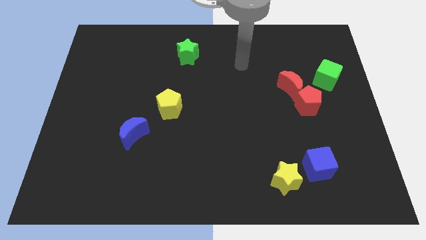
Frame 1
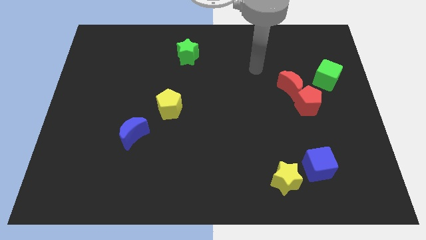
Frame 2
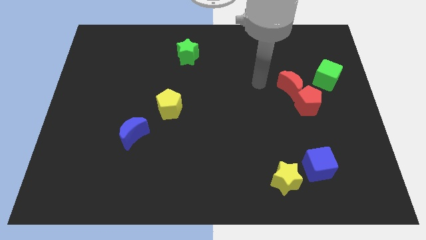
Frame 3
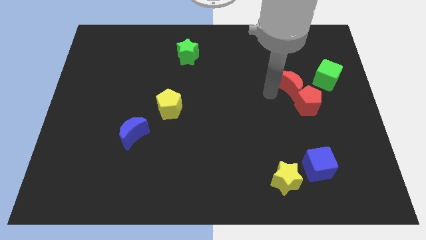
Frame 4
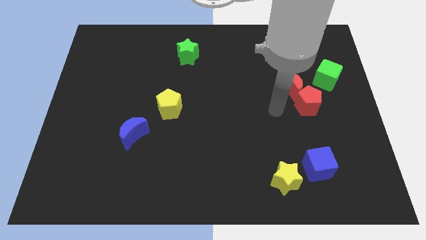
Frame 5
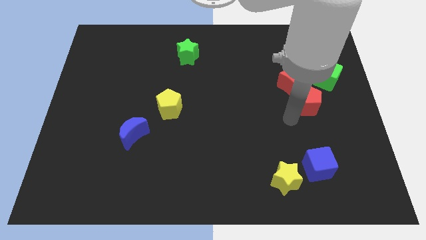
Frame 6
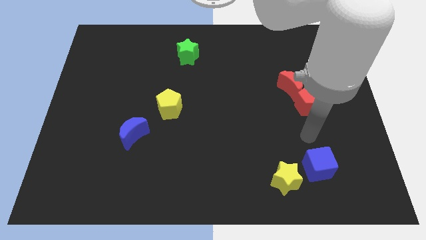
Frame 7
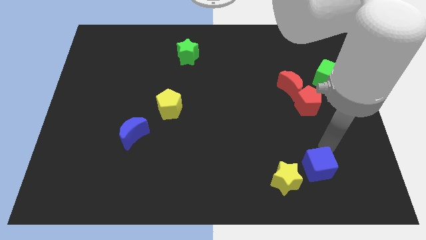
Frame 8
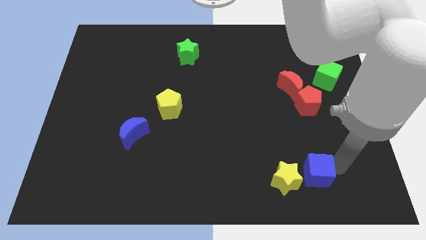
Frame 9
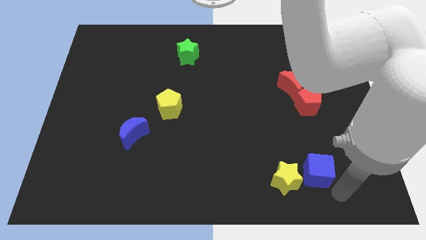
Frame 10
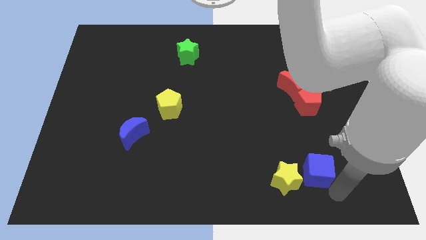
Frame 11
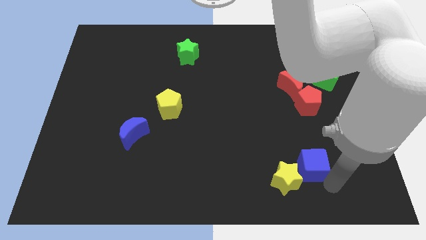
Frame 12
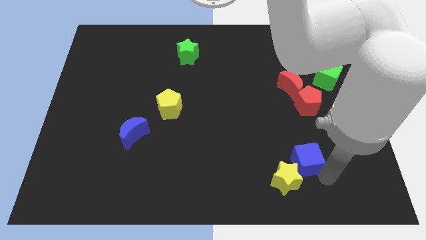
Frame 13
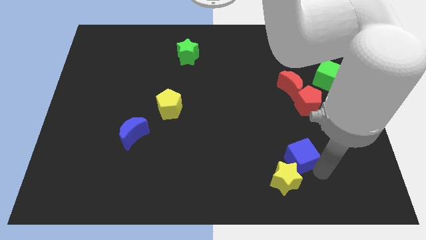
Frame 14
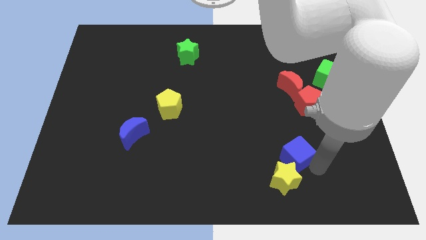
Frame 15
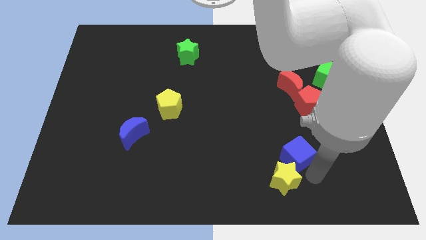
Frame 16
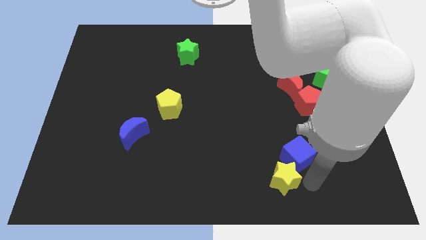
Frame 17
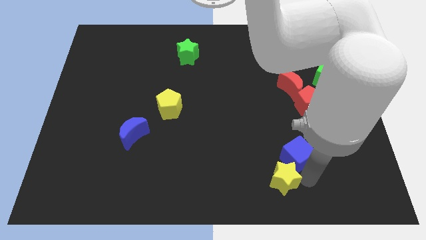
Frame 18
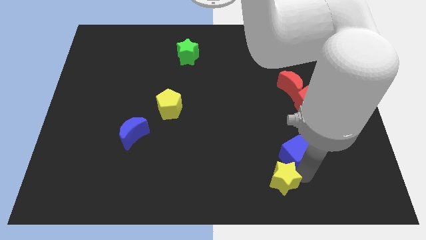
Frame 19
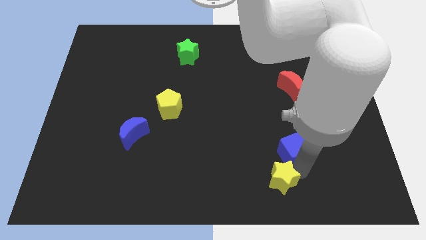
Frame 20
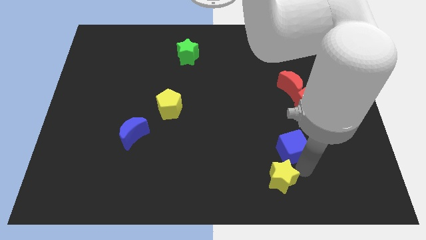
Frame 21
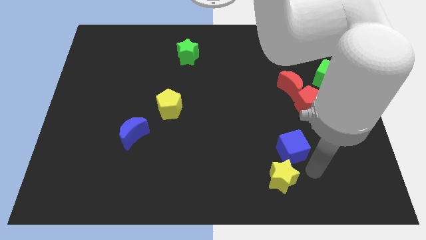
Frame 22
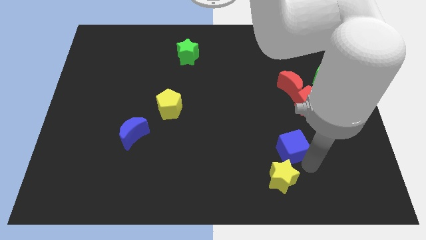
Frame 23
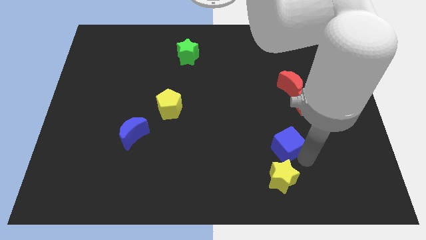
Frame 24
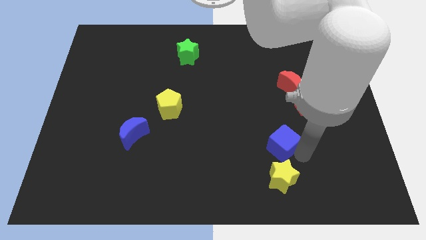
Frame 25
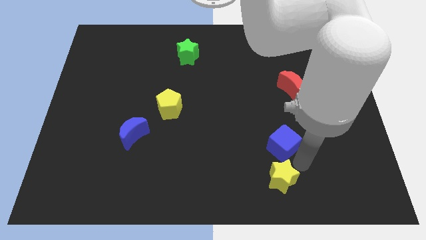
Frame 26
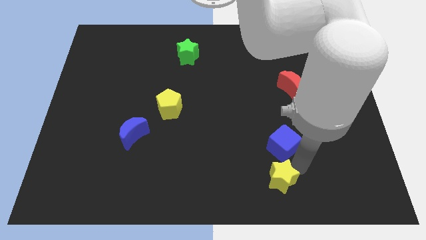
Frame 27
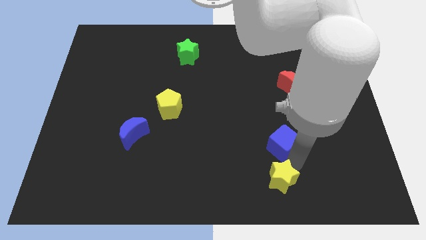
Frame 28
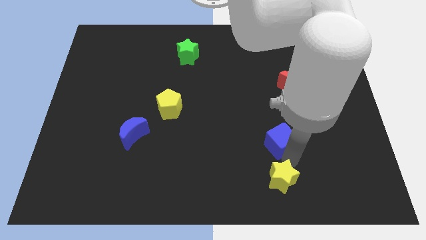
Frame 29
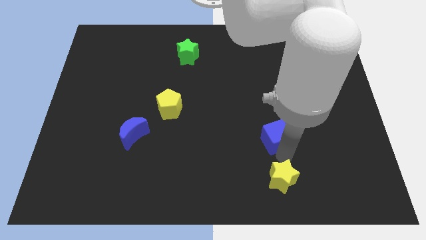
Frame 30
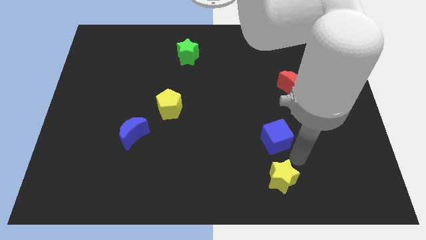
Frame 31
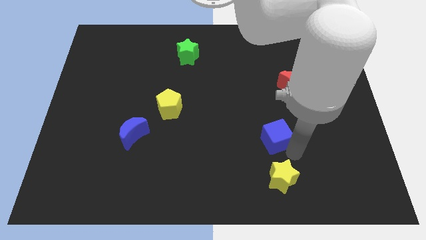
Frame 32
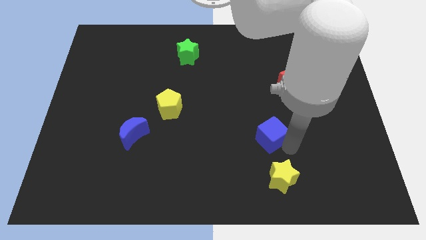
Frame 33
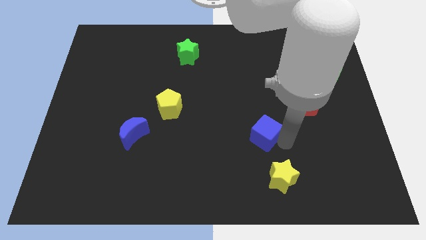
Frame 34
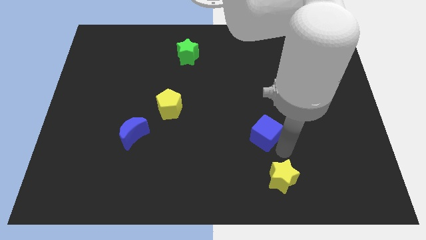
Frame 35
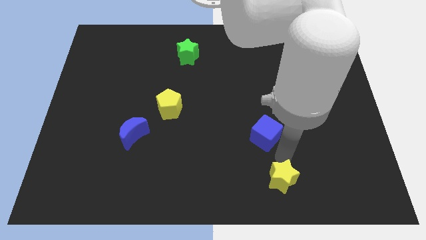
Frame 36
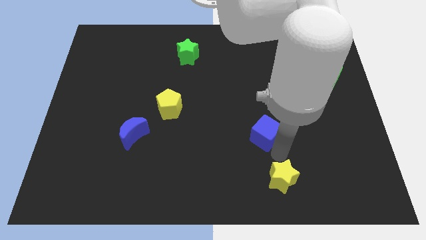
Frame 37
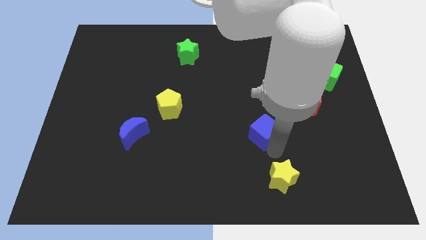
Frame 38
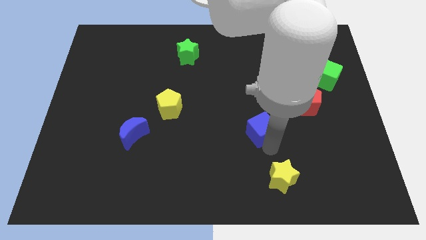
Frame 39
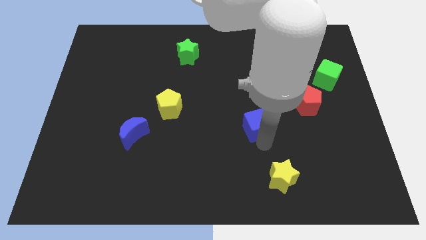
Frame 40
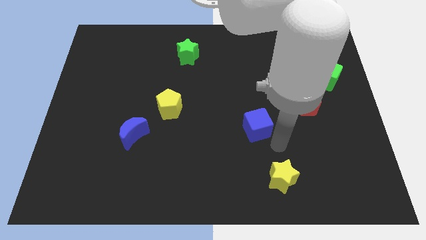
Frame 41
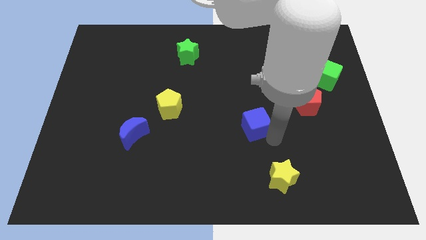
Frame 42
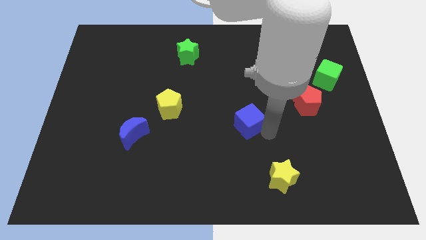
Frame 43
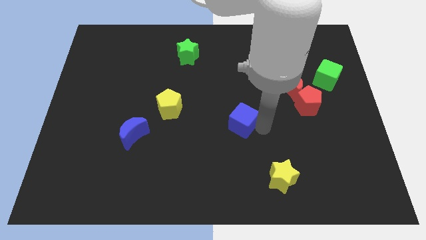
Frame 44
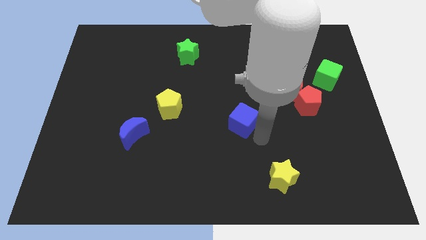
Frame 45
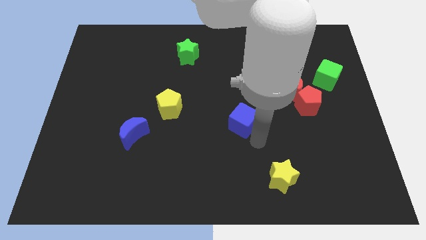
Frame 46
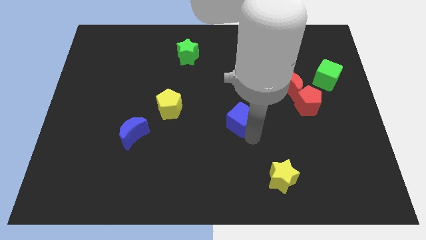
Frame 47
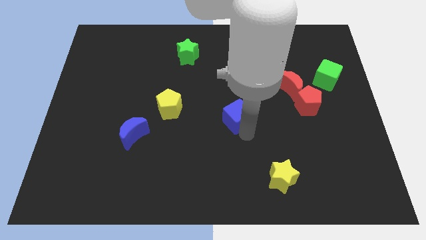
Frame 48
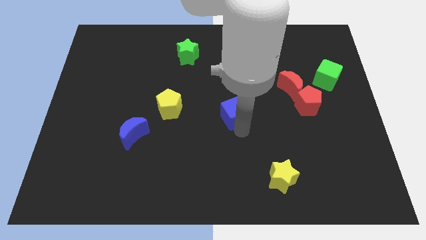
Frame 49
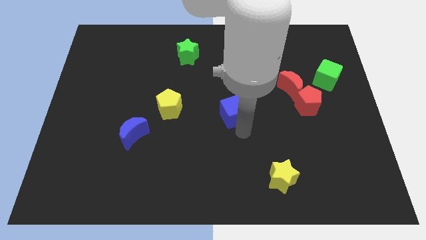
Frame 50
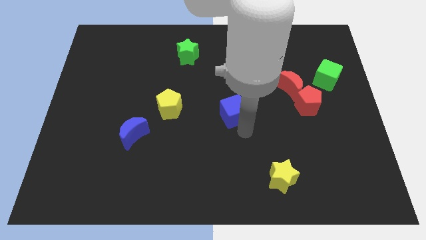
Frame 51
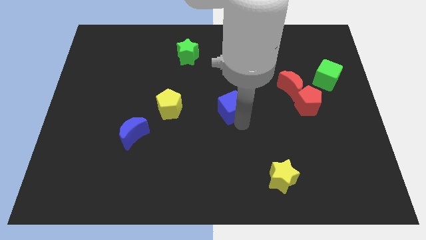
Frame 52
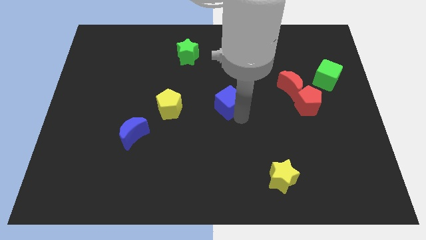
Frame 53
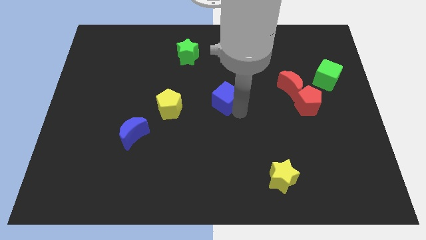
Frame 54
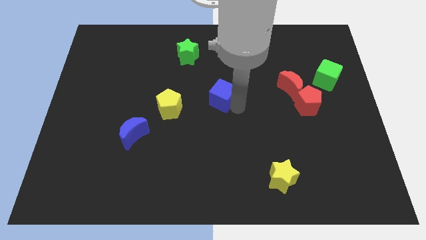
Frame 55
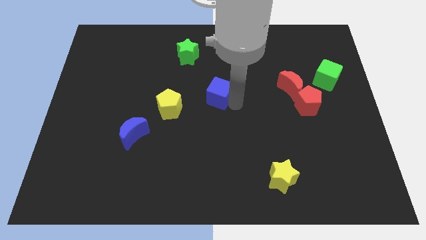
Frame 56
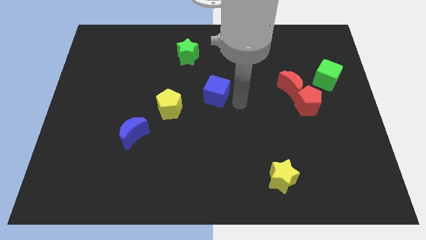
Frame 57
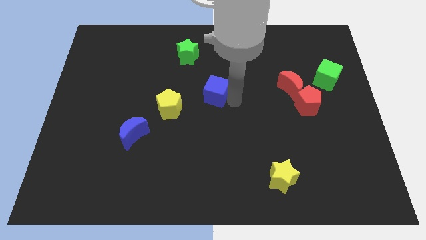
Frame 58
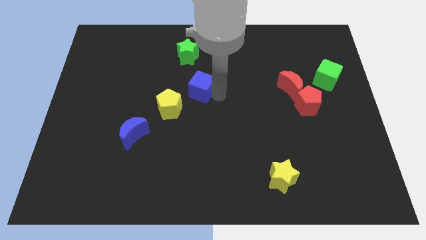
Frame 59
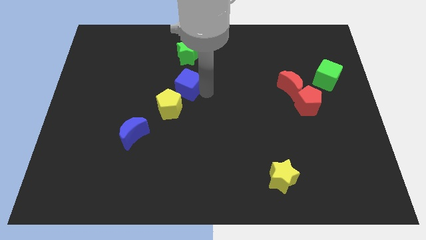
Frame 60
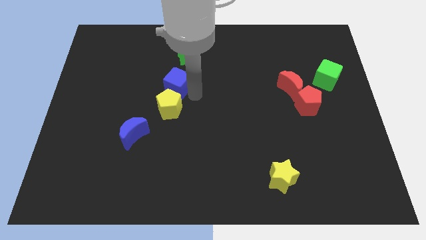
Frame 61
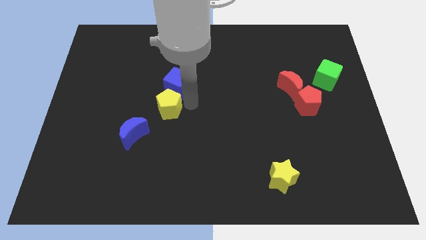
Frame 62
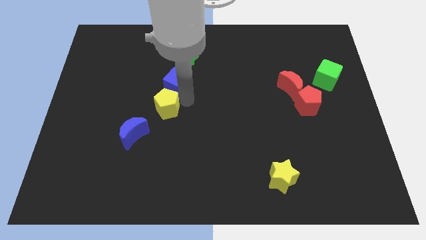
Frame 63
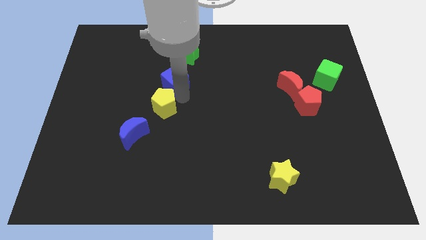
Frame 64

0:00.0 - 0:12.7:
move the blue cube diagonally down and to the left of the green star

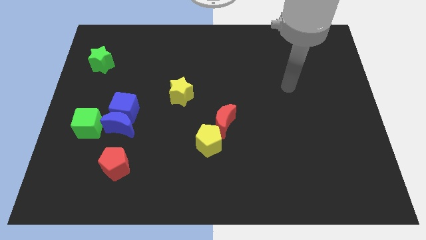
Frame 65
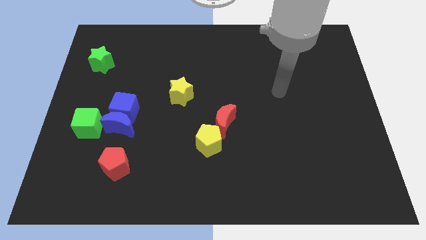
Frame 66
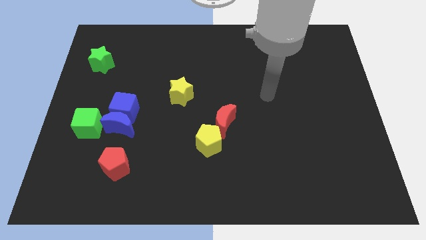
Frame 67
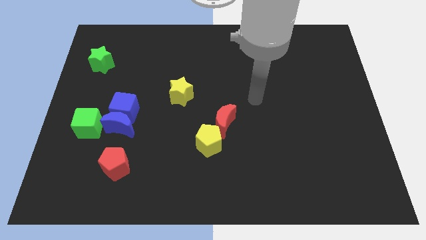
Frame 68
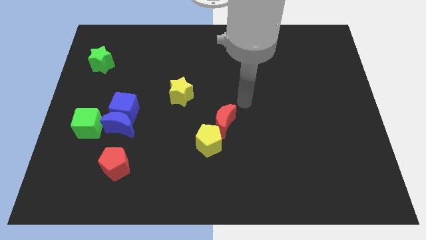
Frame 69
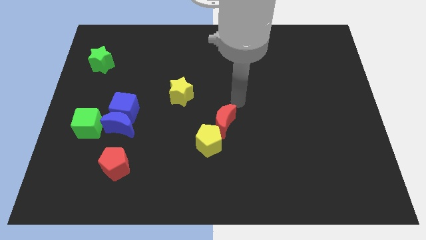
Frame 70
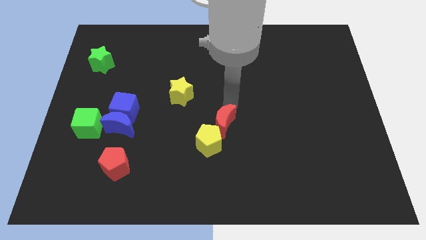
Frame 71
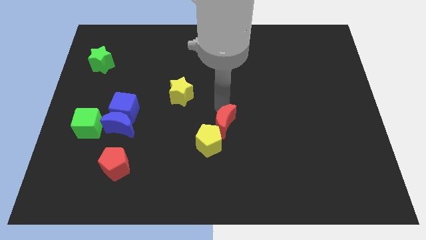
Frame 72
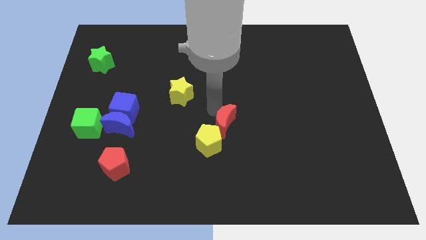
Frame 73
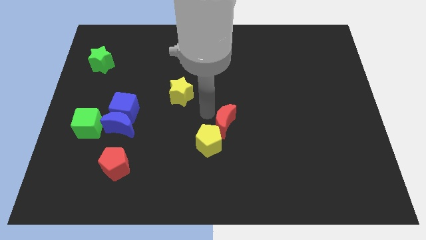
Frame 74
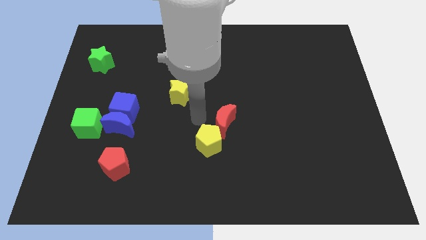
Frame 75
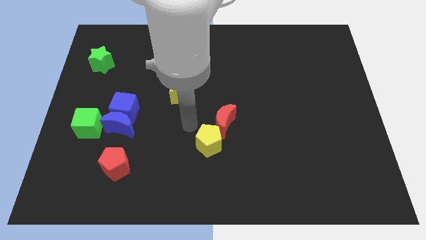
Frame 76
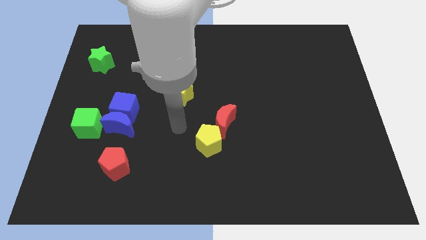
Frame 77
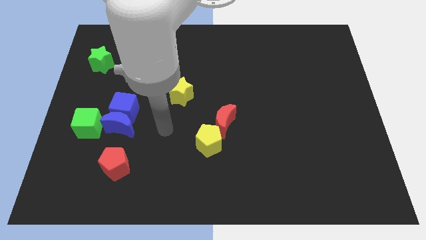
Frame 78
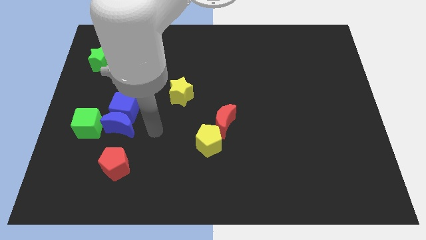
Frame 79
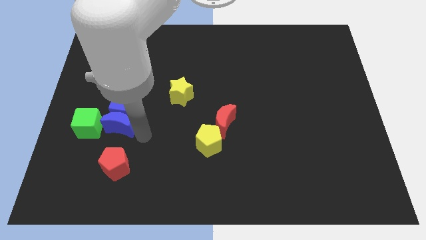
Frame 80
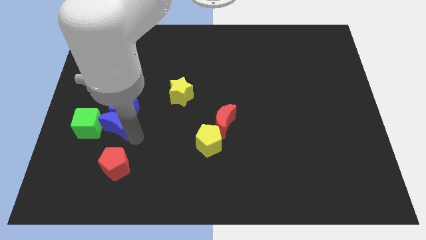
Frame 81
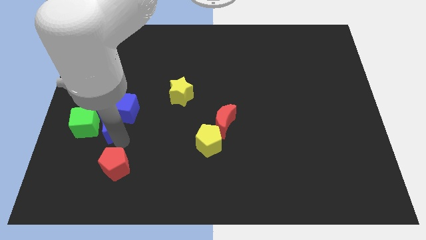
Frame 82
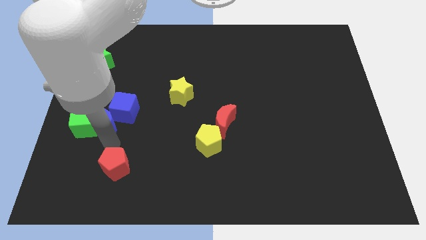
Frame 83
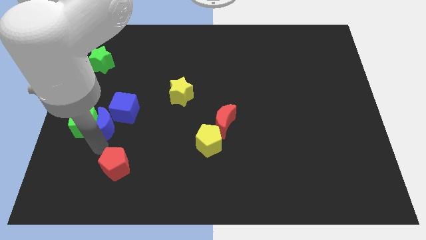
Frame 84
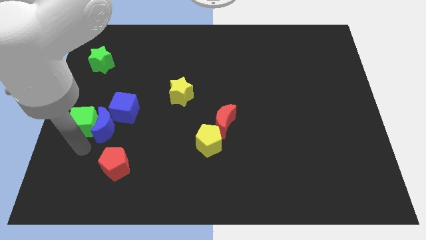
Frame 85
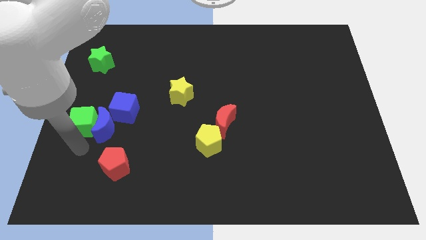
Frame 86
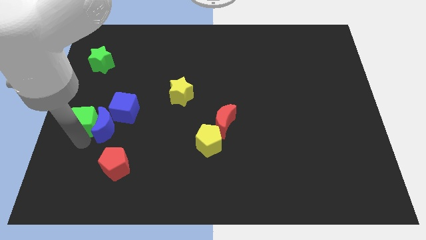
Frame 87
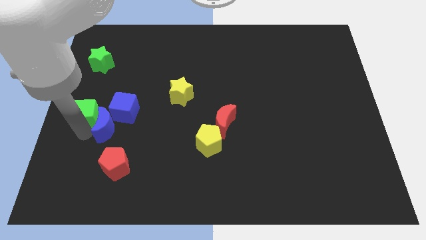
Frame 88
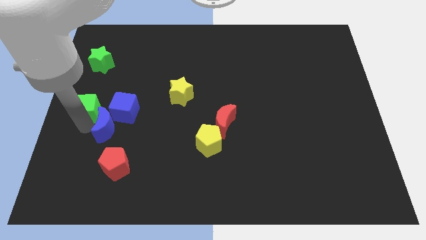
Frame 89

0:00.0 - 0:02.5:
push the green cube below the green star
